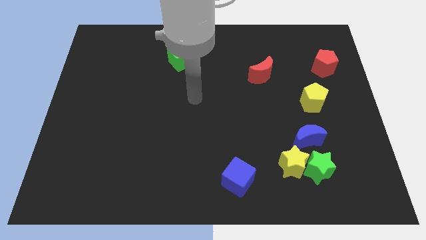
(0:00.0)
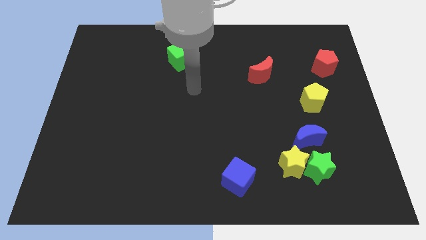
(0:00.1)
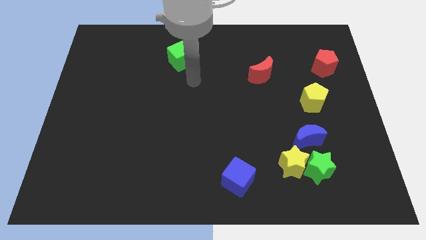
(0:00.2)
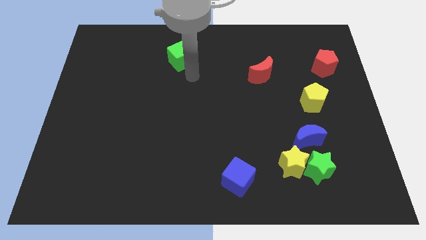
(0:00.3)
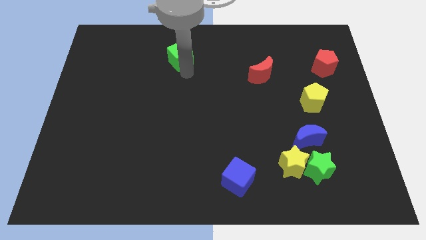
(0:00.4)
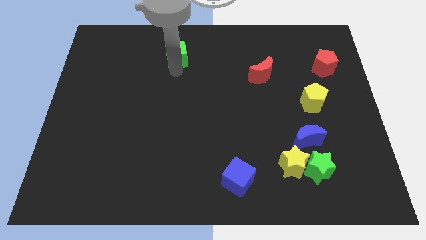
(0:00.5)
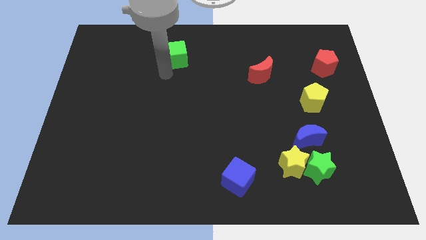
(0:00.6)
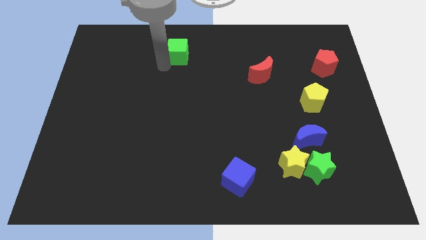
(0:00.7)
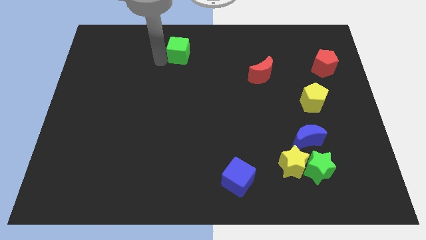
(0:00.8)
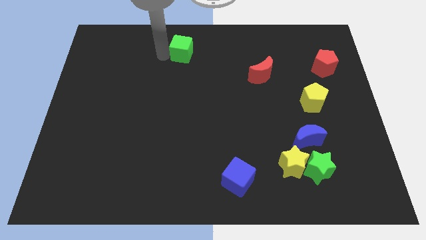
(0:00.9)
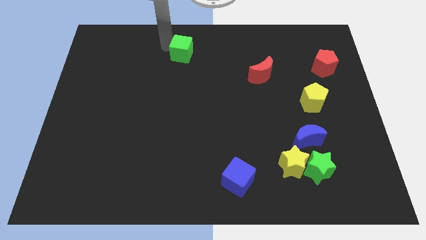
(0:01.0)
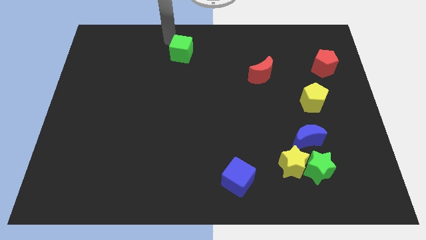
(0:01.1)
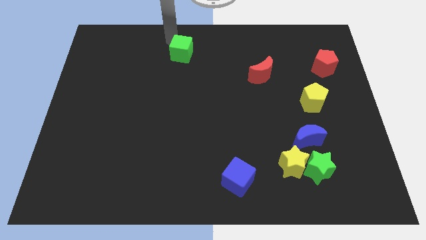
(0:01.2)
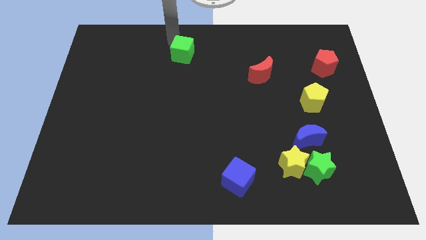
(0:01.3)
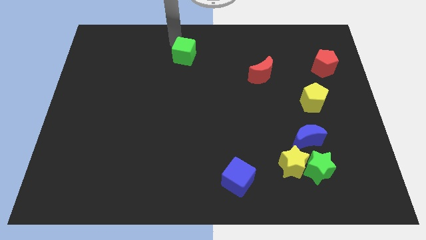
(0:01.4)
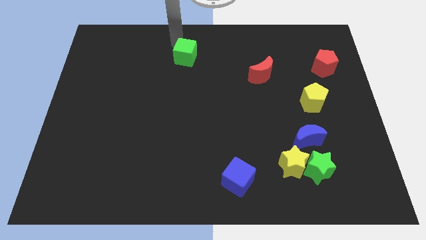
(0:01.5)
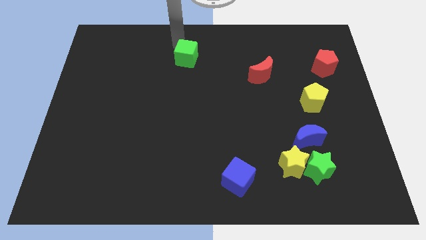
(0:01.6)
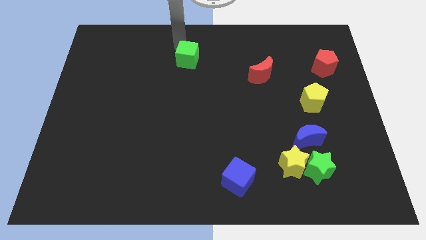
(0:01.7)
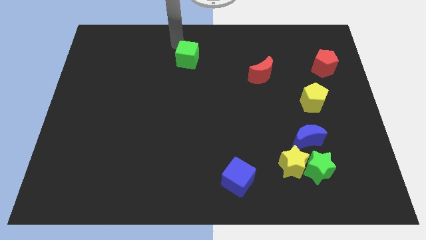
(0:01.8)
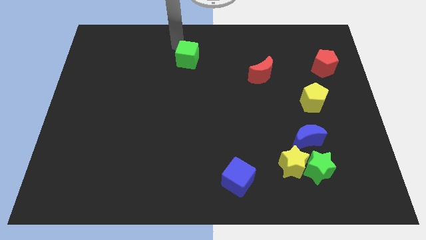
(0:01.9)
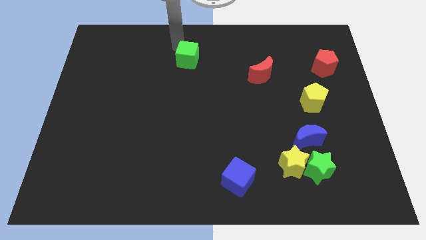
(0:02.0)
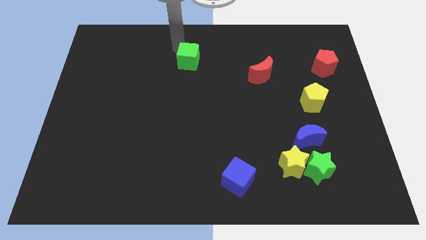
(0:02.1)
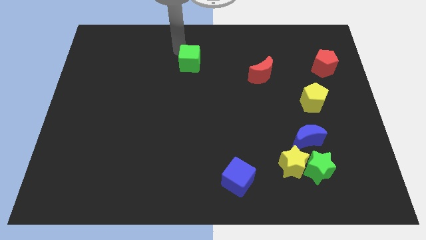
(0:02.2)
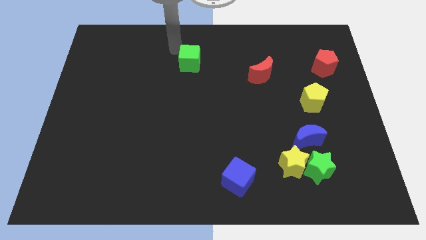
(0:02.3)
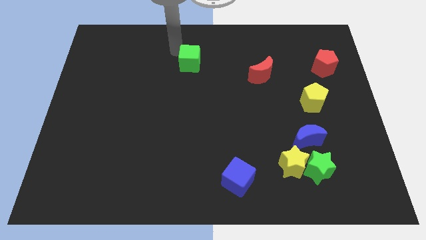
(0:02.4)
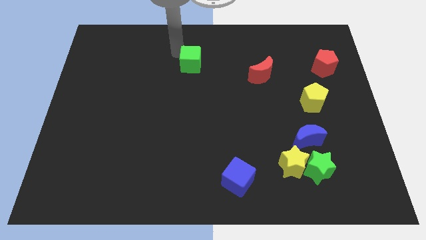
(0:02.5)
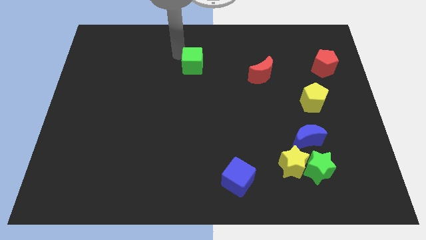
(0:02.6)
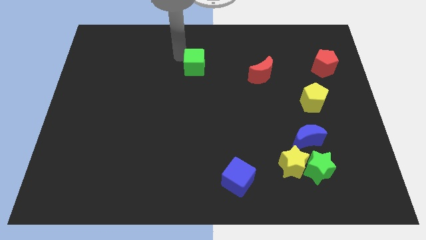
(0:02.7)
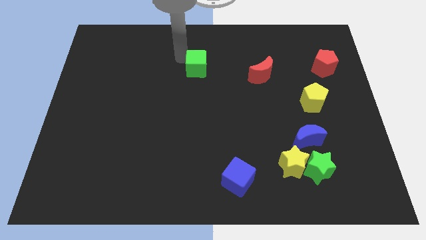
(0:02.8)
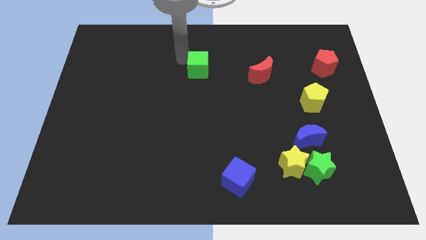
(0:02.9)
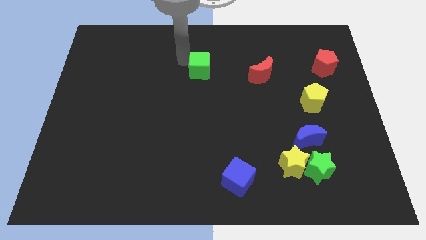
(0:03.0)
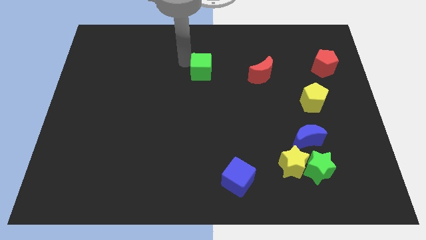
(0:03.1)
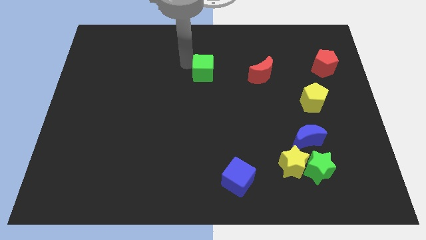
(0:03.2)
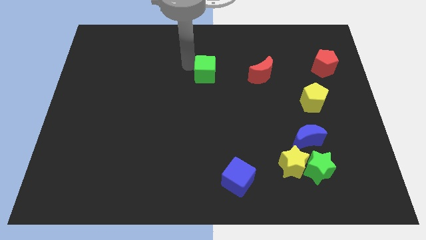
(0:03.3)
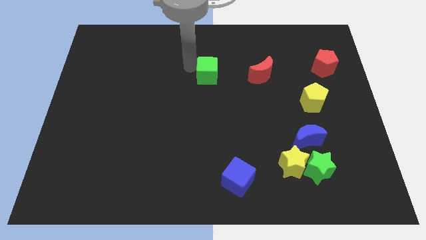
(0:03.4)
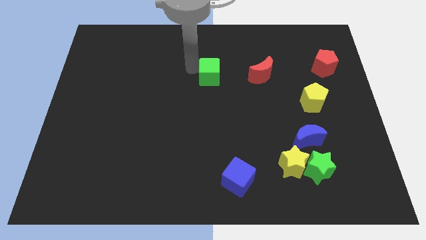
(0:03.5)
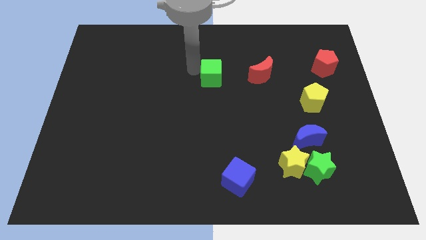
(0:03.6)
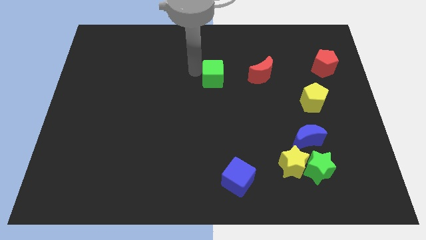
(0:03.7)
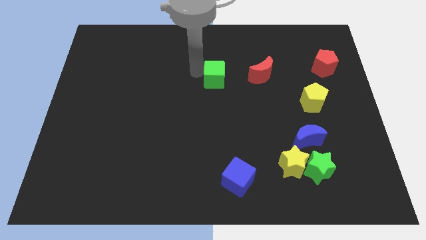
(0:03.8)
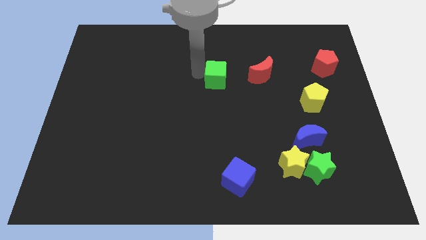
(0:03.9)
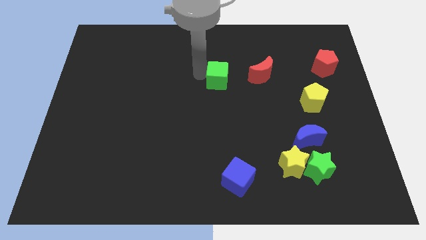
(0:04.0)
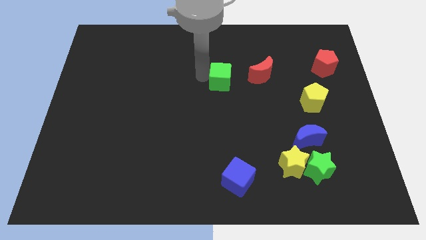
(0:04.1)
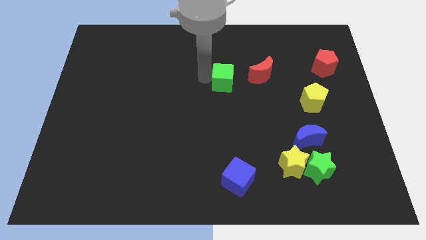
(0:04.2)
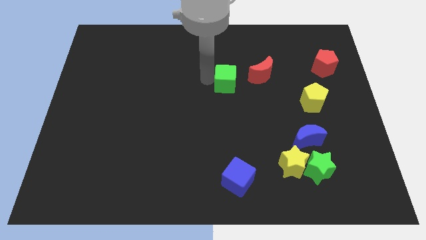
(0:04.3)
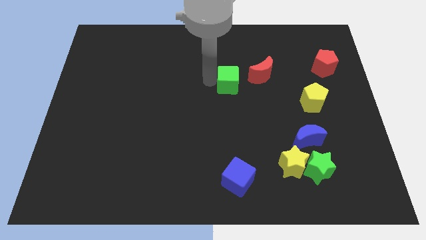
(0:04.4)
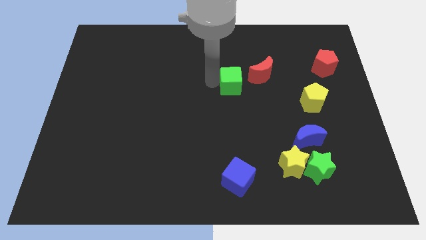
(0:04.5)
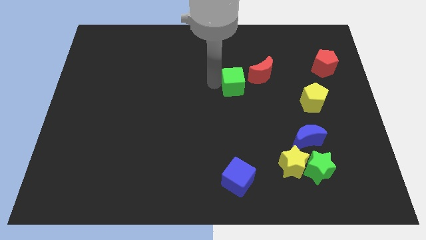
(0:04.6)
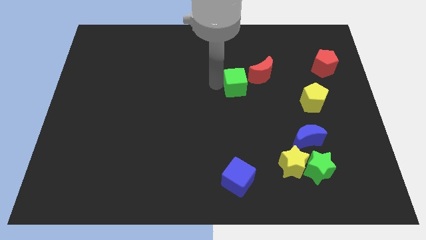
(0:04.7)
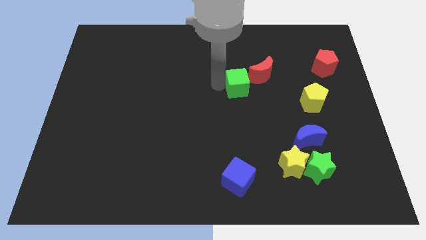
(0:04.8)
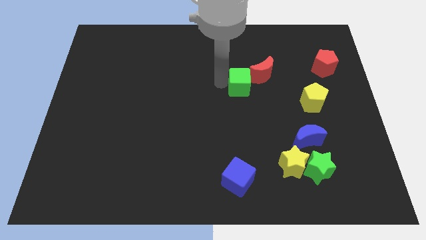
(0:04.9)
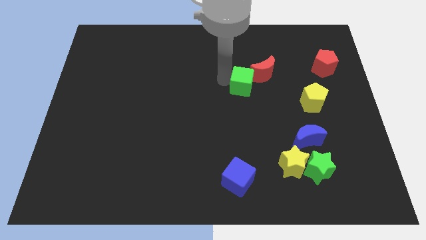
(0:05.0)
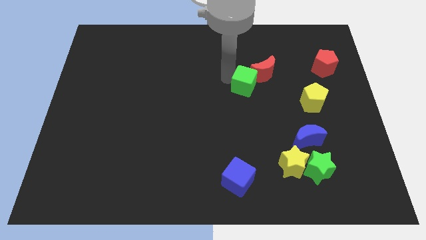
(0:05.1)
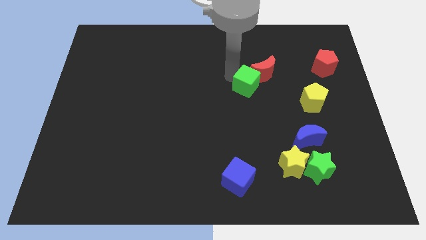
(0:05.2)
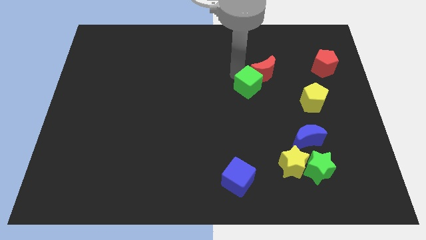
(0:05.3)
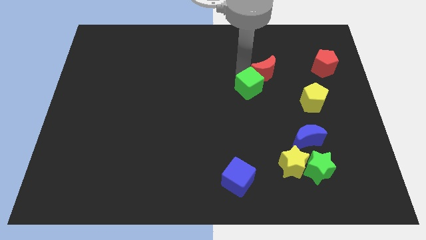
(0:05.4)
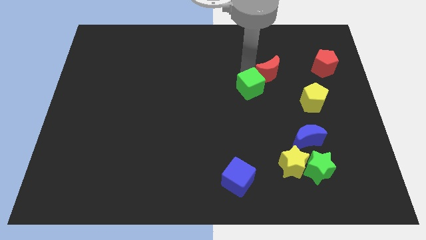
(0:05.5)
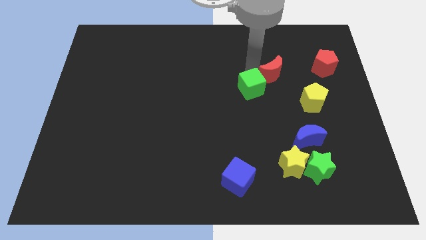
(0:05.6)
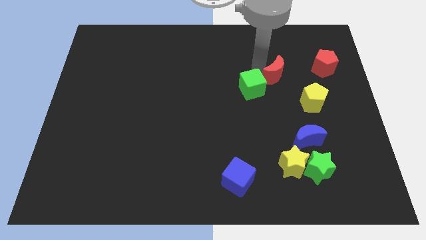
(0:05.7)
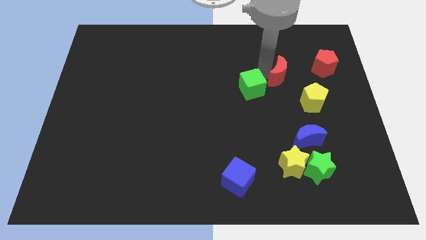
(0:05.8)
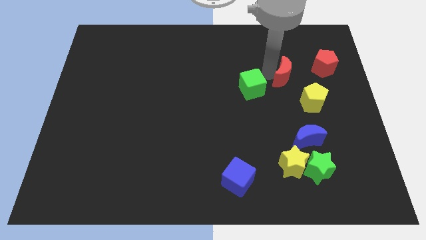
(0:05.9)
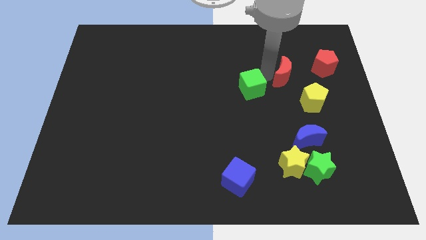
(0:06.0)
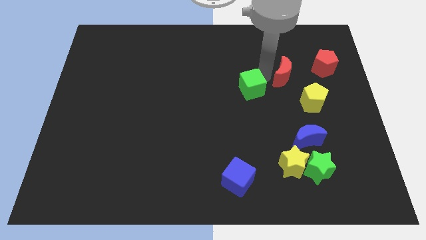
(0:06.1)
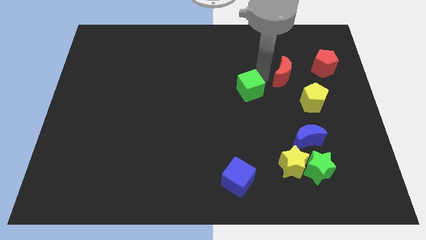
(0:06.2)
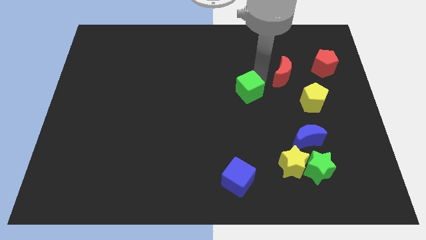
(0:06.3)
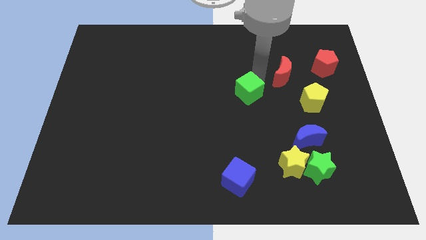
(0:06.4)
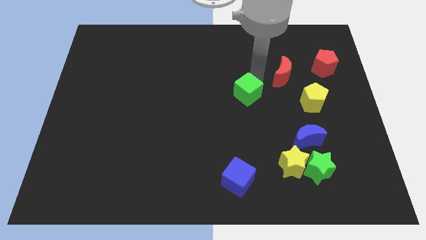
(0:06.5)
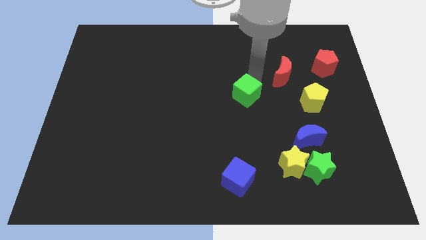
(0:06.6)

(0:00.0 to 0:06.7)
push the green cube downwards and right diagonally

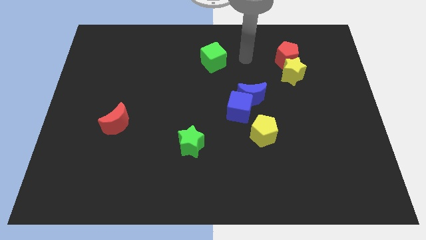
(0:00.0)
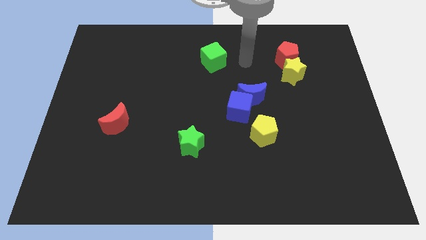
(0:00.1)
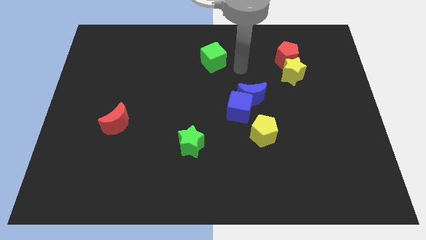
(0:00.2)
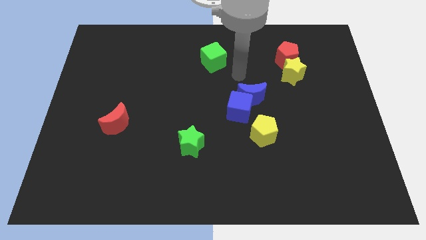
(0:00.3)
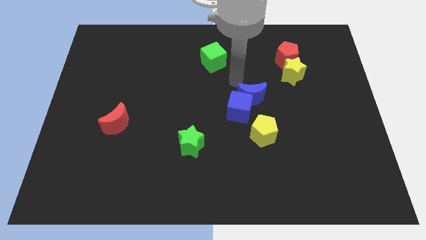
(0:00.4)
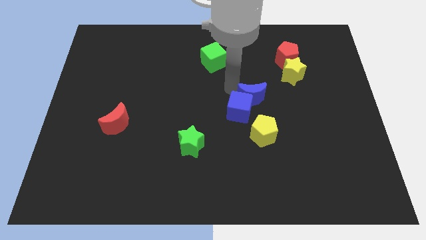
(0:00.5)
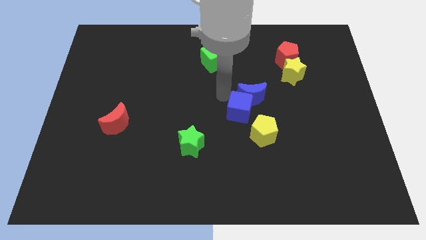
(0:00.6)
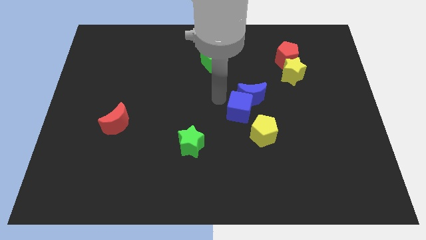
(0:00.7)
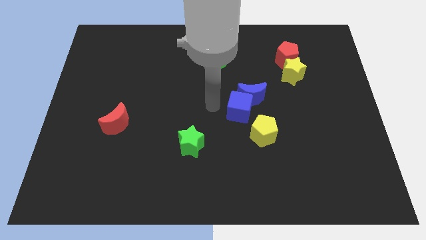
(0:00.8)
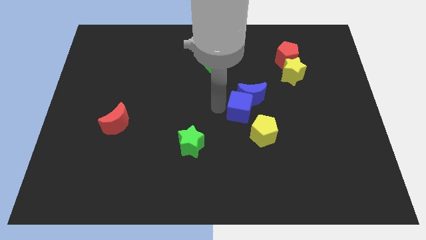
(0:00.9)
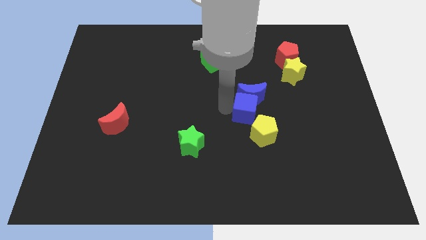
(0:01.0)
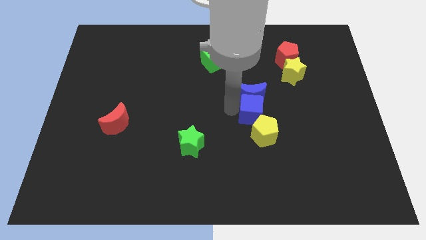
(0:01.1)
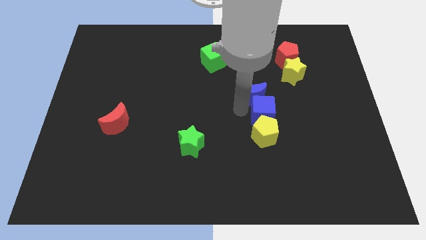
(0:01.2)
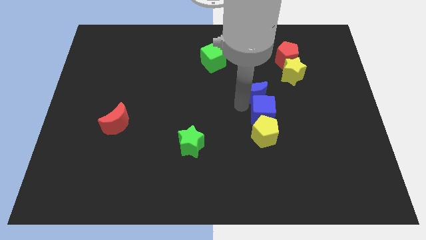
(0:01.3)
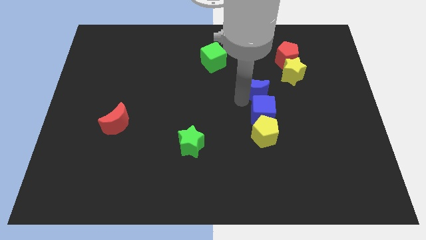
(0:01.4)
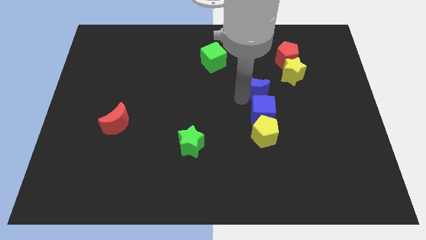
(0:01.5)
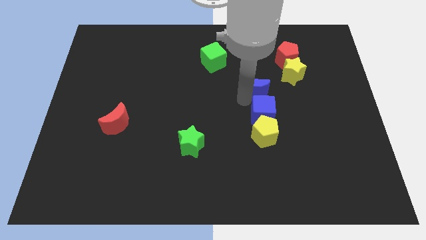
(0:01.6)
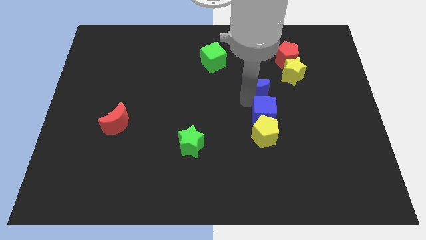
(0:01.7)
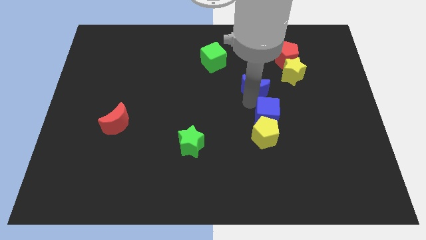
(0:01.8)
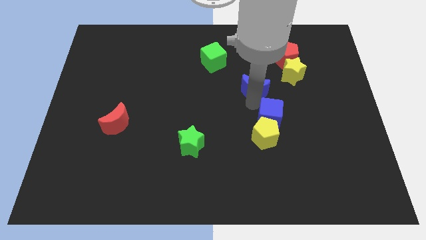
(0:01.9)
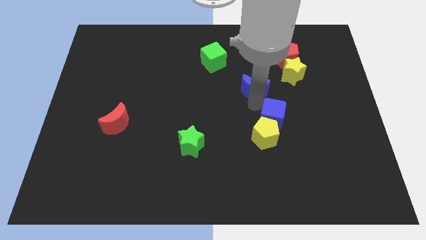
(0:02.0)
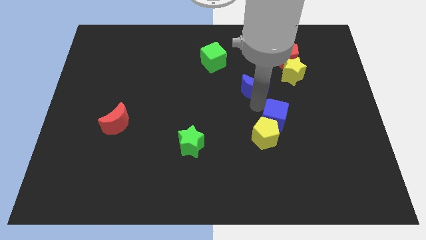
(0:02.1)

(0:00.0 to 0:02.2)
slightly slide the blue cube diagonally down and right
